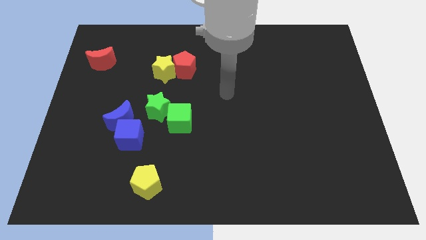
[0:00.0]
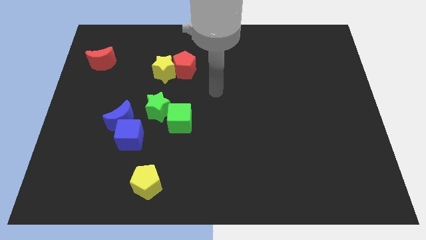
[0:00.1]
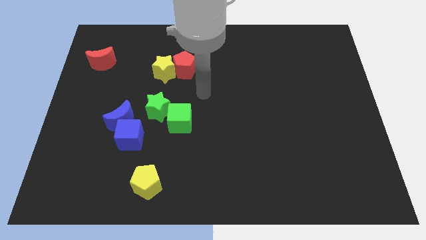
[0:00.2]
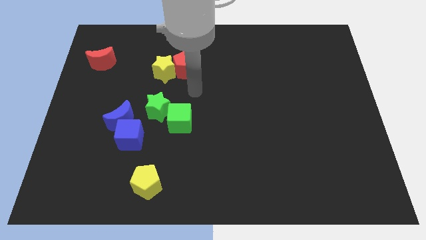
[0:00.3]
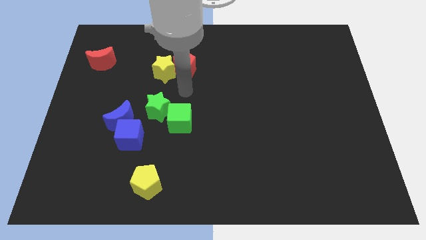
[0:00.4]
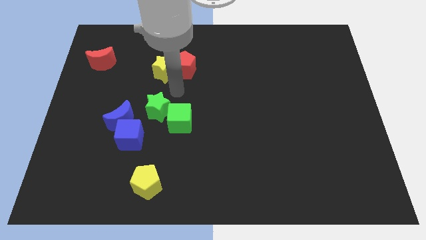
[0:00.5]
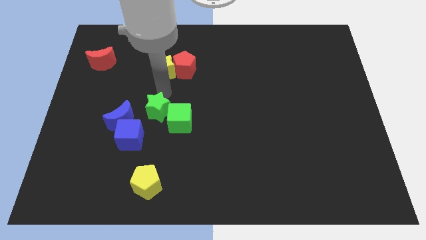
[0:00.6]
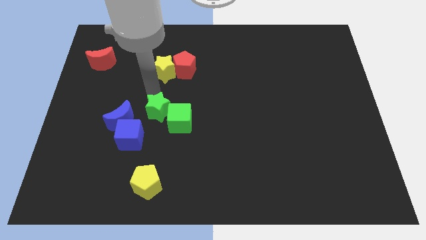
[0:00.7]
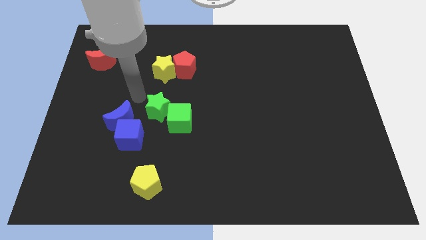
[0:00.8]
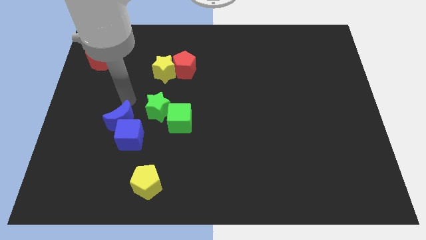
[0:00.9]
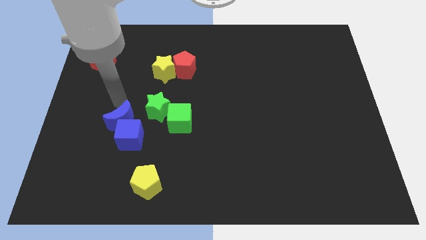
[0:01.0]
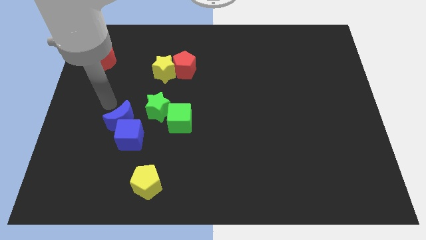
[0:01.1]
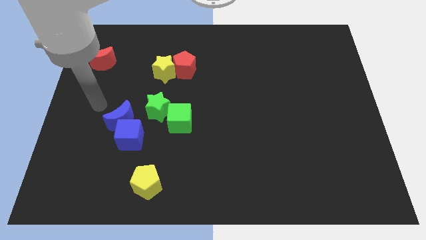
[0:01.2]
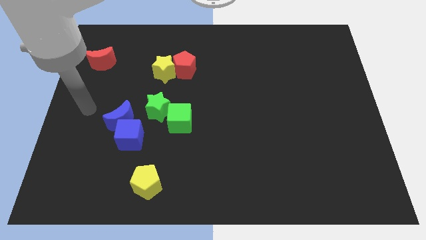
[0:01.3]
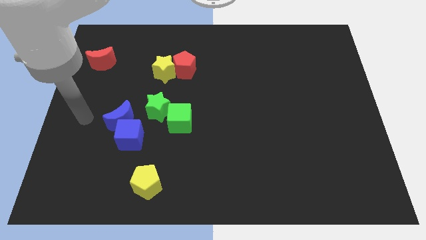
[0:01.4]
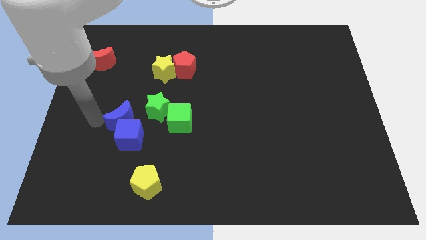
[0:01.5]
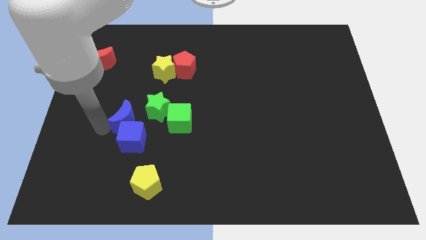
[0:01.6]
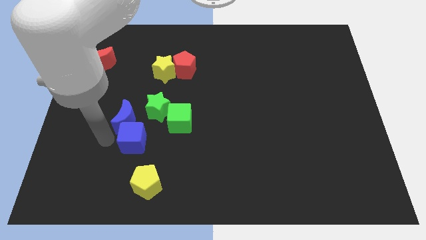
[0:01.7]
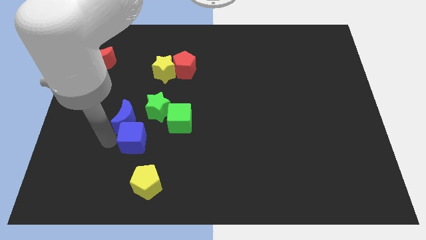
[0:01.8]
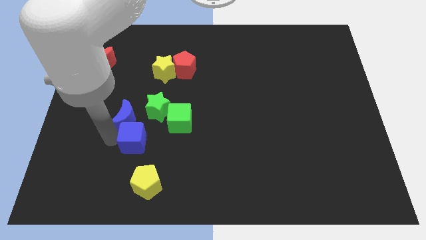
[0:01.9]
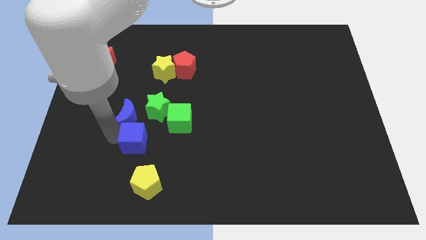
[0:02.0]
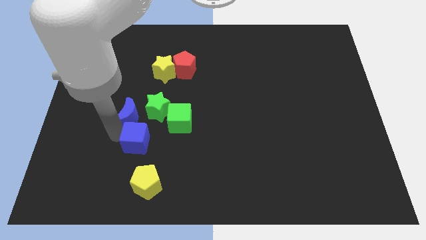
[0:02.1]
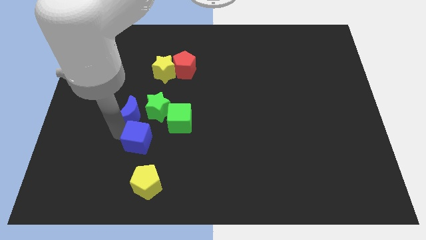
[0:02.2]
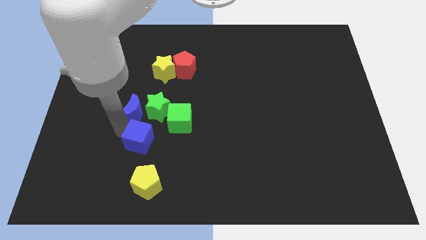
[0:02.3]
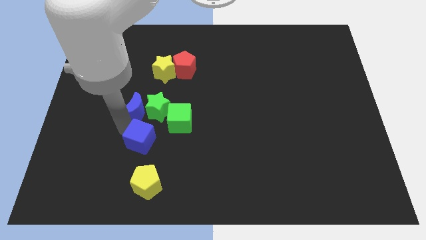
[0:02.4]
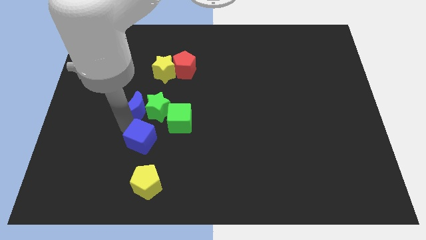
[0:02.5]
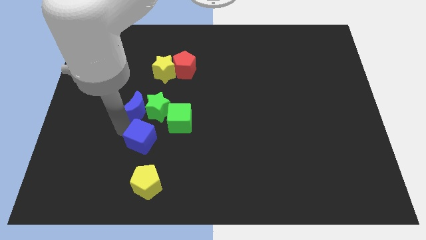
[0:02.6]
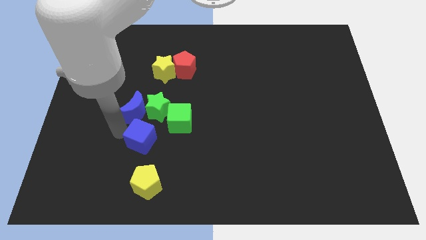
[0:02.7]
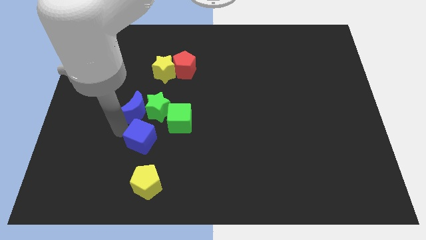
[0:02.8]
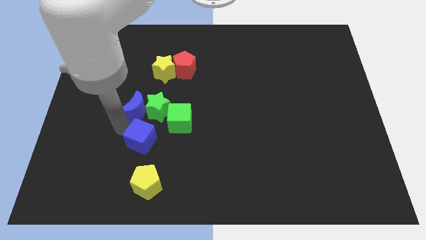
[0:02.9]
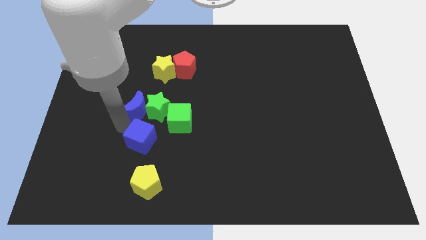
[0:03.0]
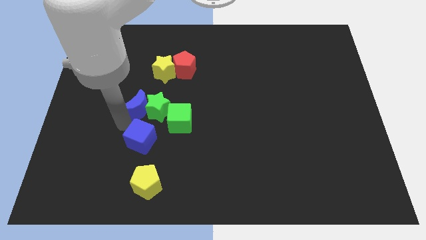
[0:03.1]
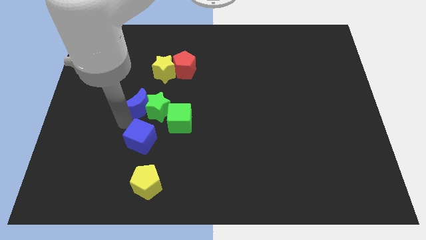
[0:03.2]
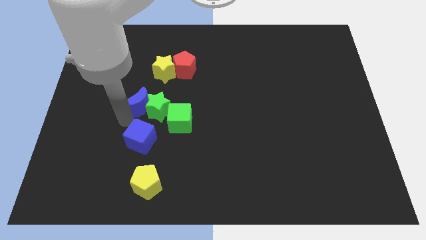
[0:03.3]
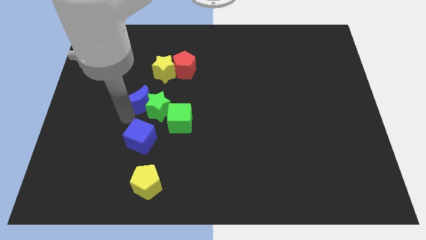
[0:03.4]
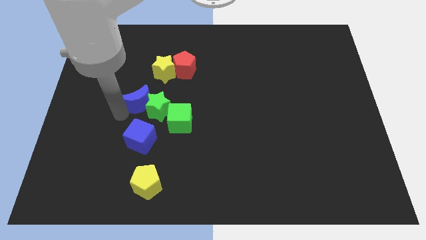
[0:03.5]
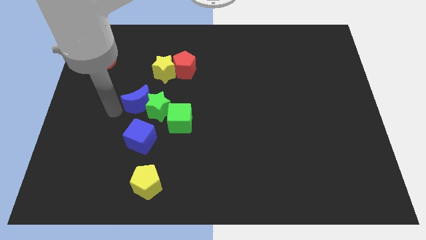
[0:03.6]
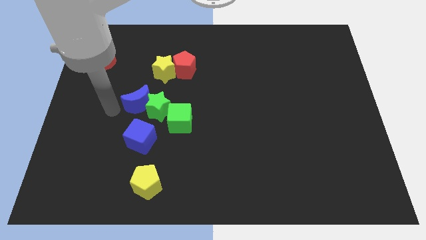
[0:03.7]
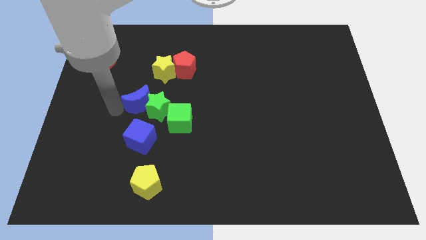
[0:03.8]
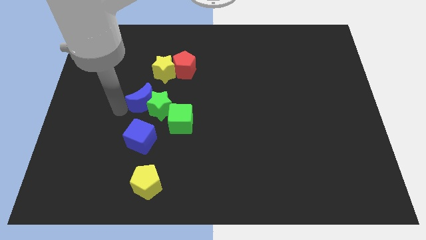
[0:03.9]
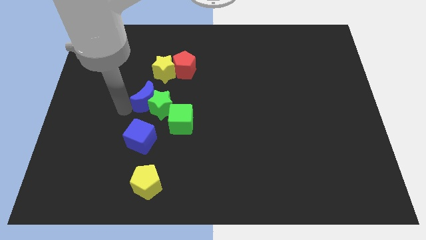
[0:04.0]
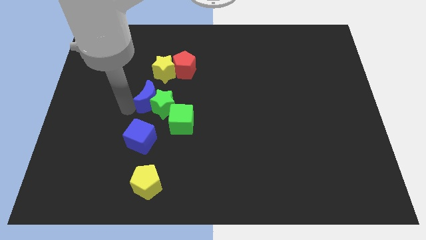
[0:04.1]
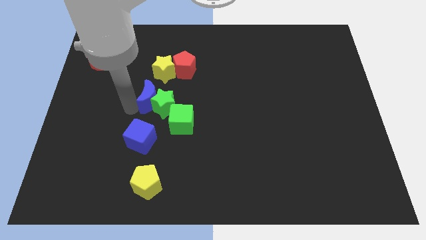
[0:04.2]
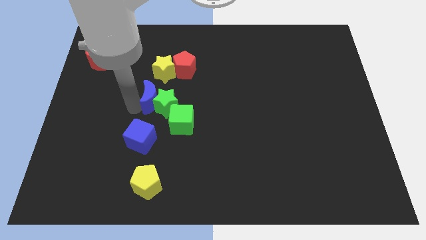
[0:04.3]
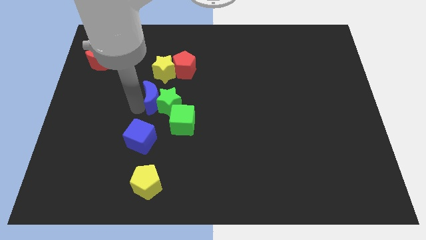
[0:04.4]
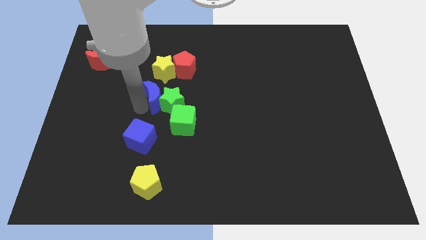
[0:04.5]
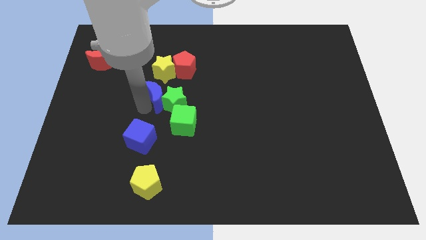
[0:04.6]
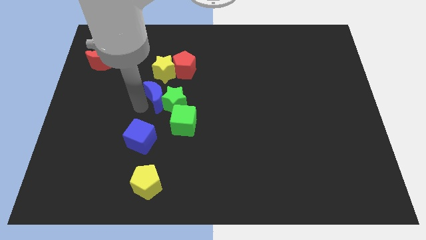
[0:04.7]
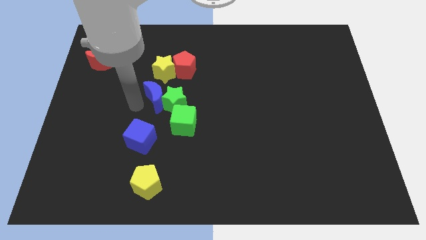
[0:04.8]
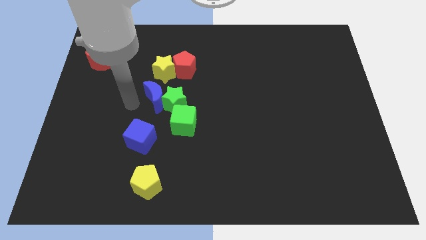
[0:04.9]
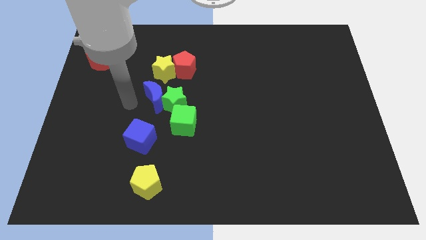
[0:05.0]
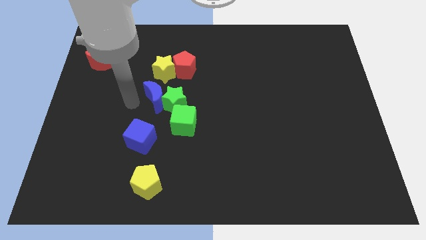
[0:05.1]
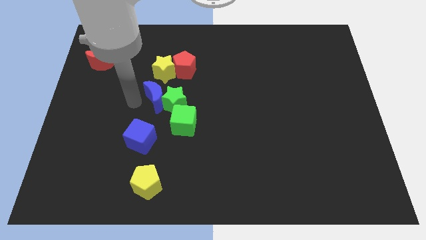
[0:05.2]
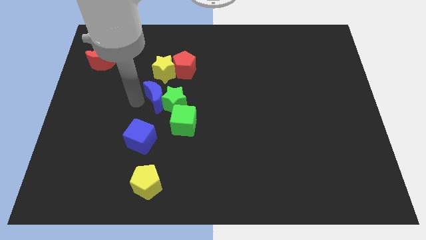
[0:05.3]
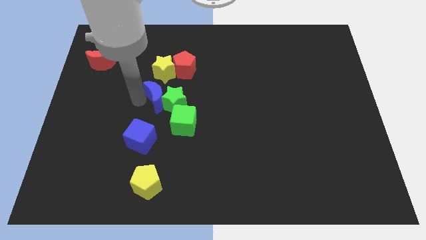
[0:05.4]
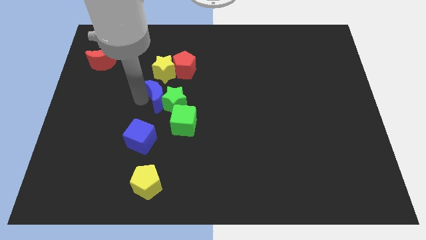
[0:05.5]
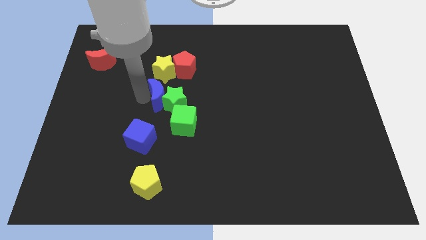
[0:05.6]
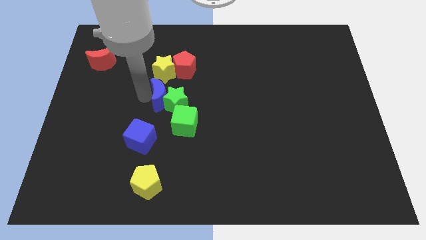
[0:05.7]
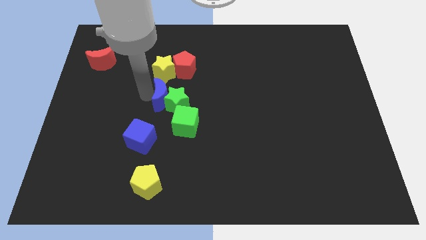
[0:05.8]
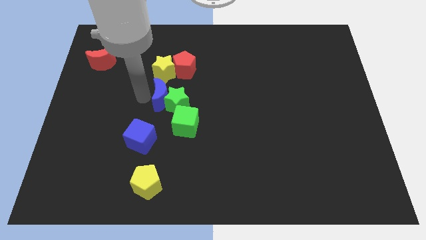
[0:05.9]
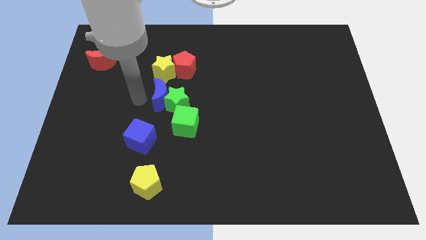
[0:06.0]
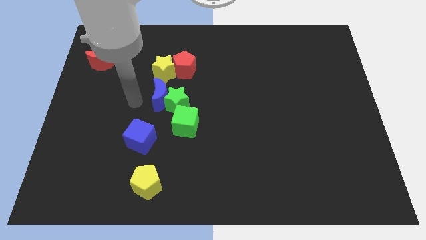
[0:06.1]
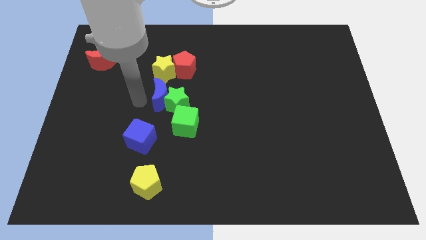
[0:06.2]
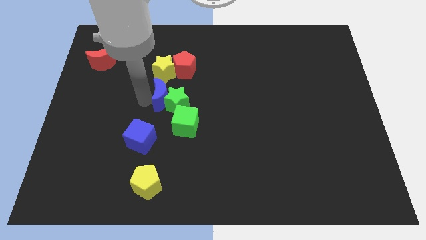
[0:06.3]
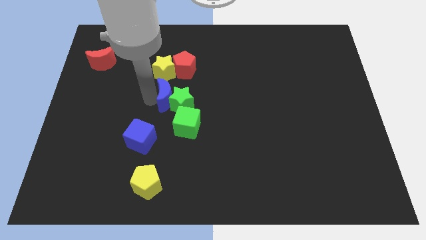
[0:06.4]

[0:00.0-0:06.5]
push the blue moon right a bit

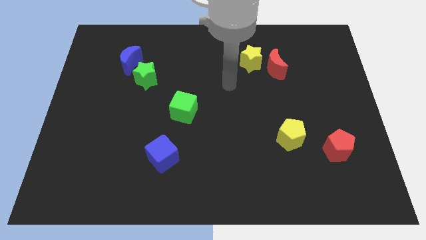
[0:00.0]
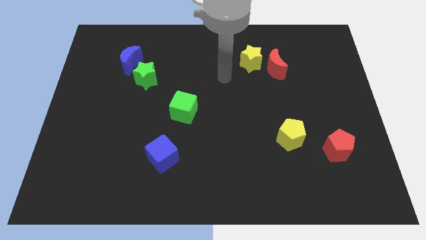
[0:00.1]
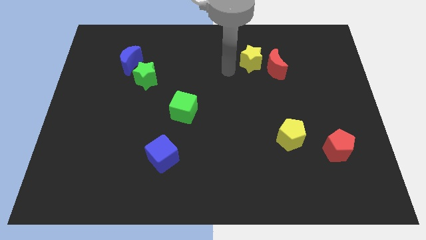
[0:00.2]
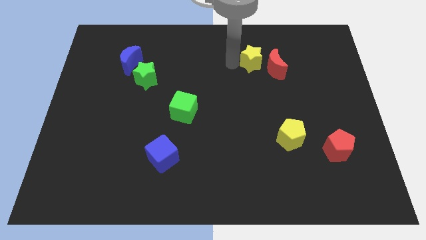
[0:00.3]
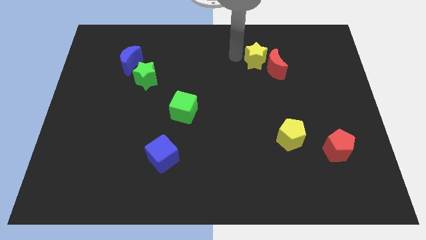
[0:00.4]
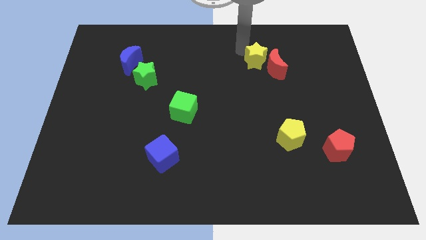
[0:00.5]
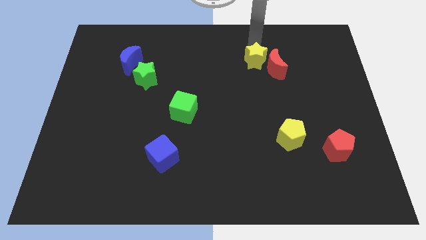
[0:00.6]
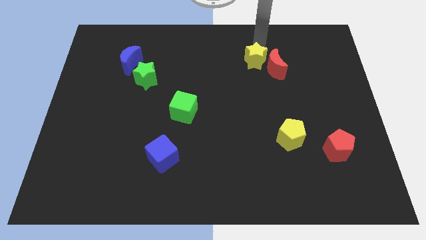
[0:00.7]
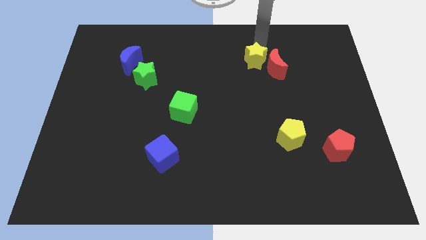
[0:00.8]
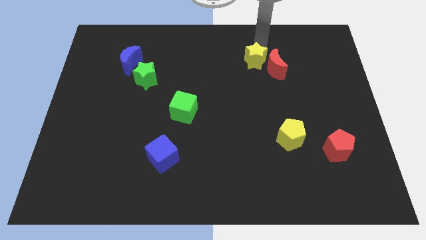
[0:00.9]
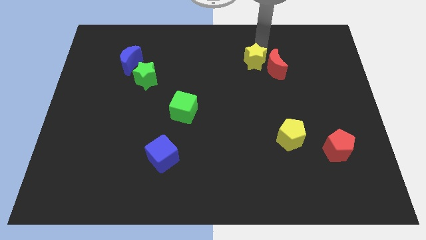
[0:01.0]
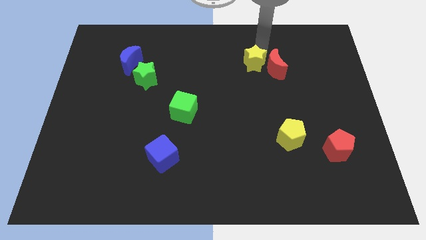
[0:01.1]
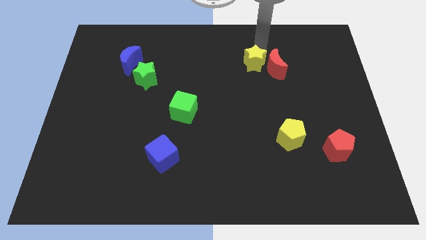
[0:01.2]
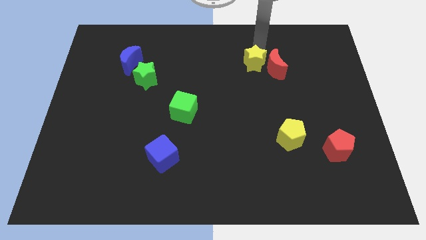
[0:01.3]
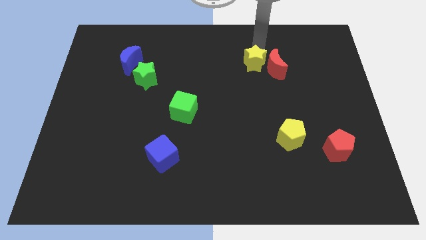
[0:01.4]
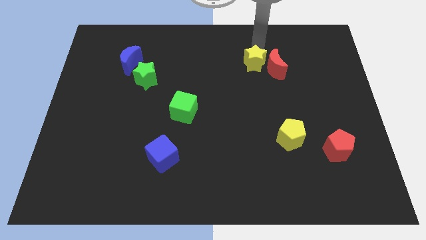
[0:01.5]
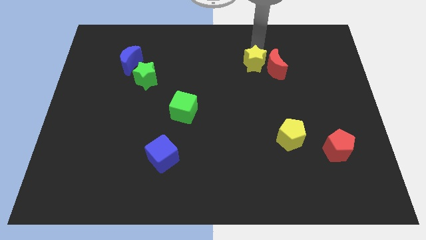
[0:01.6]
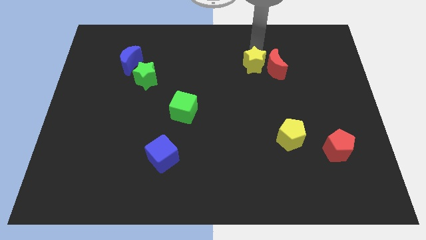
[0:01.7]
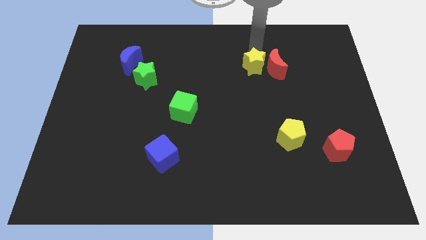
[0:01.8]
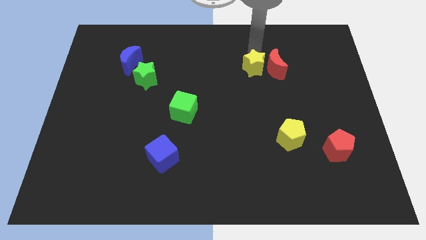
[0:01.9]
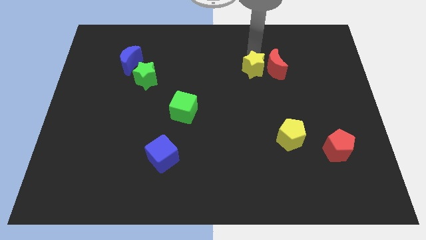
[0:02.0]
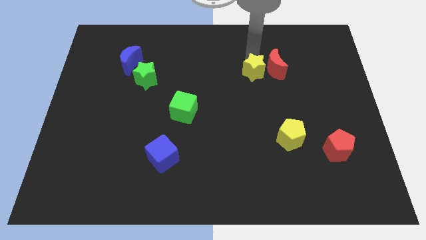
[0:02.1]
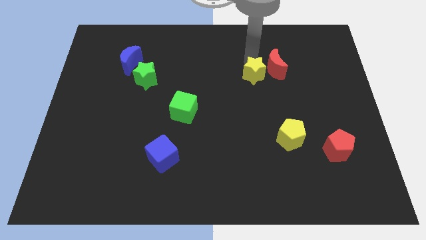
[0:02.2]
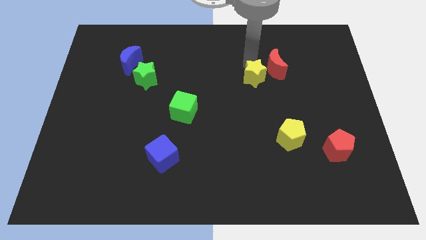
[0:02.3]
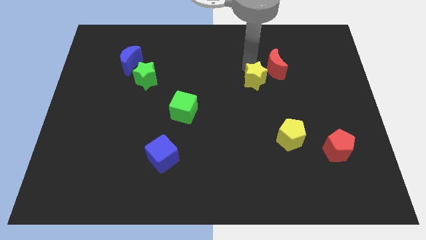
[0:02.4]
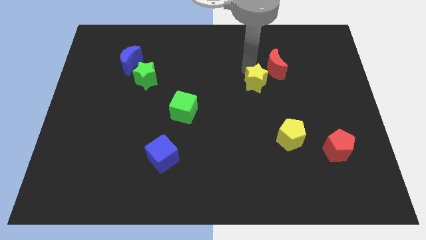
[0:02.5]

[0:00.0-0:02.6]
slide the yellow star a bit down
